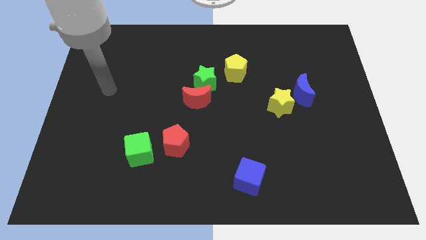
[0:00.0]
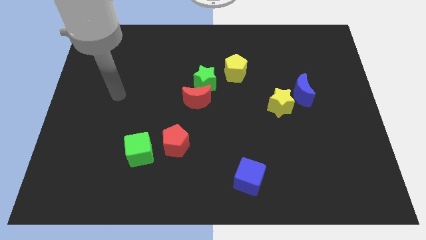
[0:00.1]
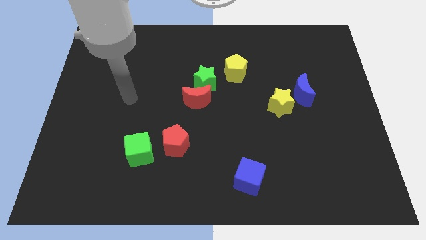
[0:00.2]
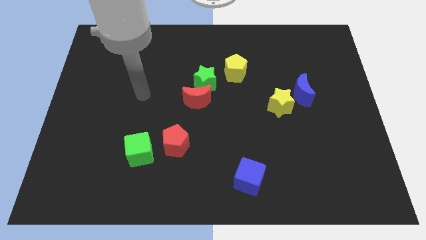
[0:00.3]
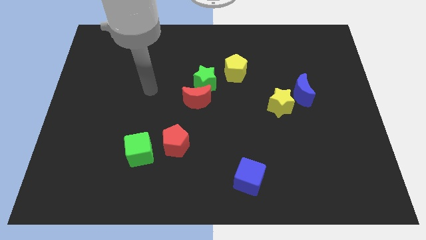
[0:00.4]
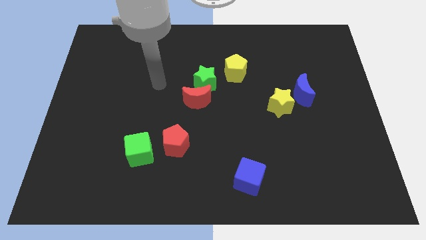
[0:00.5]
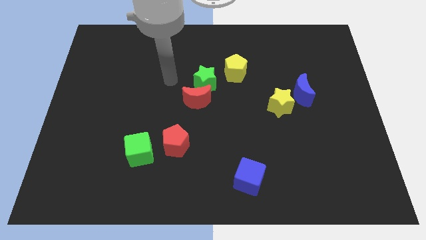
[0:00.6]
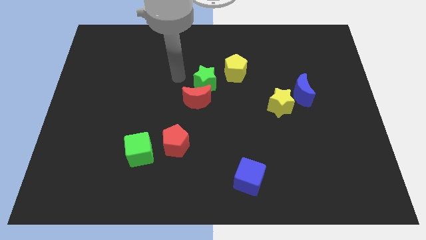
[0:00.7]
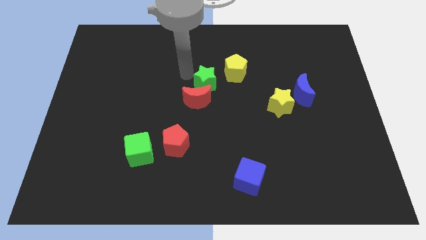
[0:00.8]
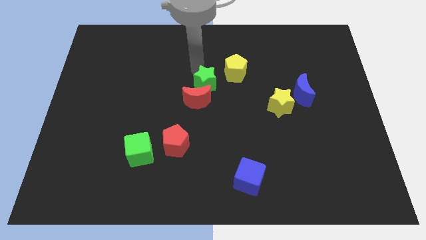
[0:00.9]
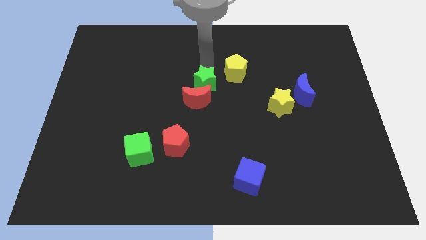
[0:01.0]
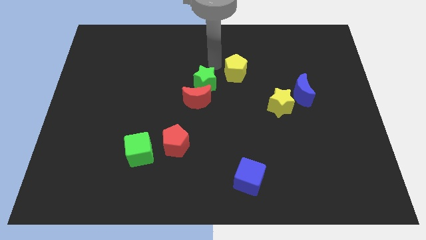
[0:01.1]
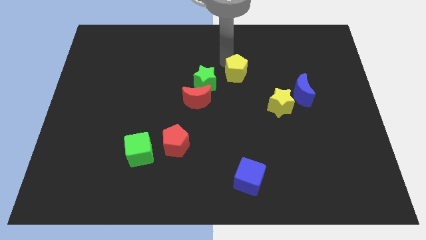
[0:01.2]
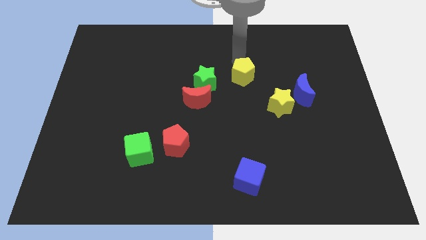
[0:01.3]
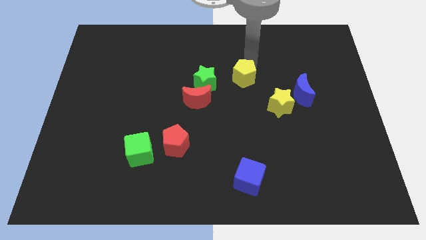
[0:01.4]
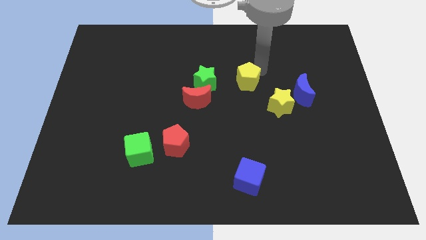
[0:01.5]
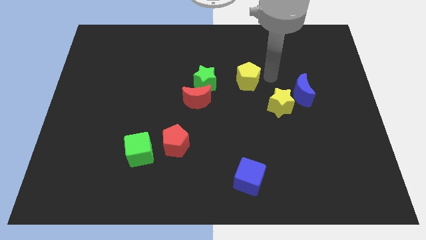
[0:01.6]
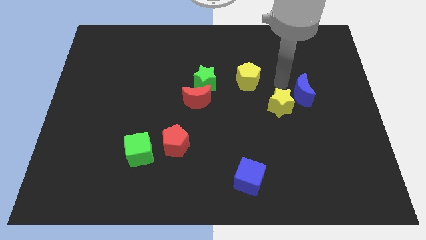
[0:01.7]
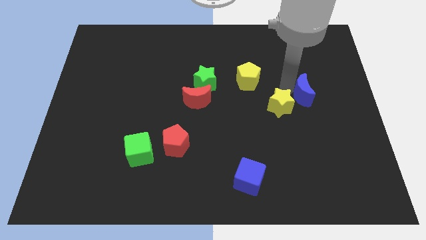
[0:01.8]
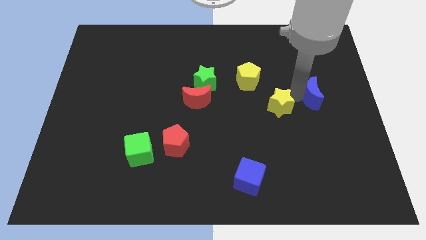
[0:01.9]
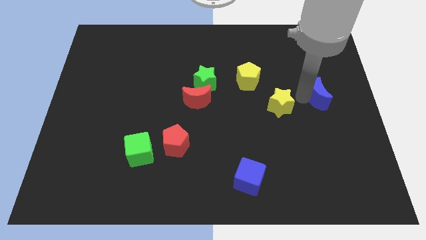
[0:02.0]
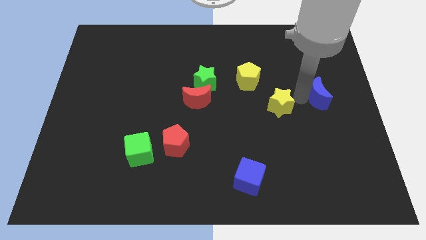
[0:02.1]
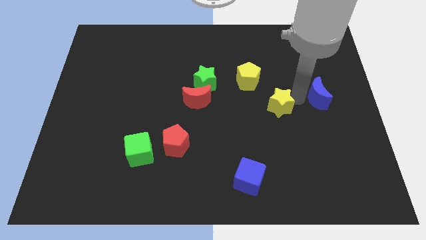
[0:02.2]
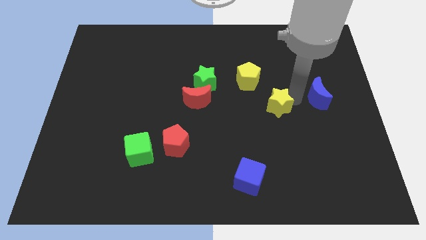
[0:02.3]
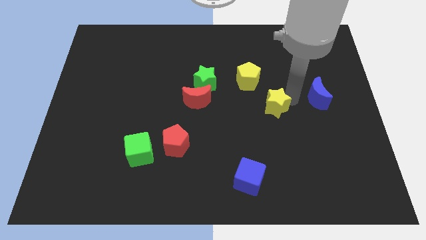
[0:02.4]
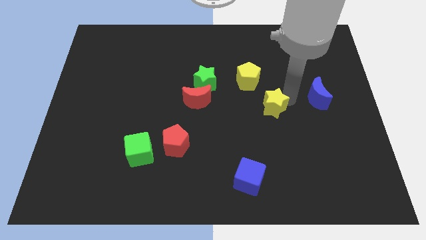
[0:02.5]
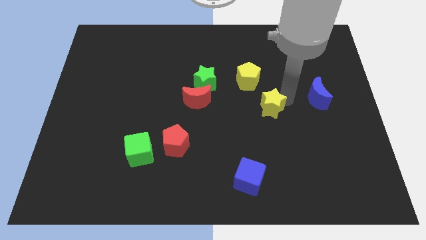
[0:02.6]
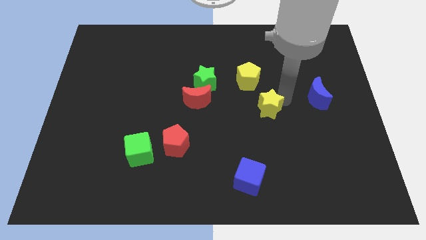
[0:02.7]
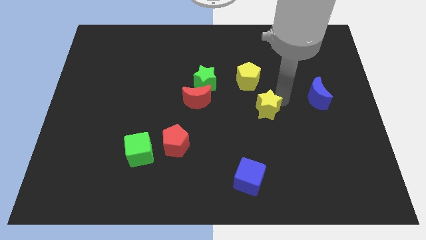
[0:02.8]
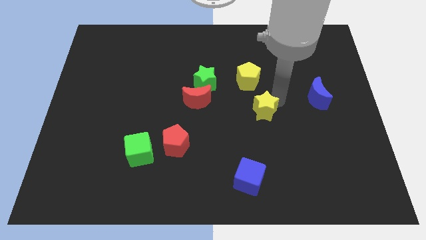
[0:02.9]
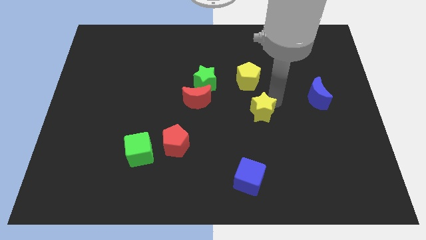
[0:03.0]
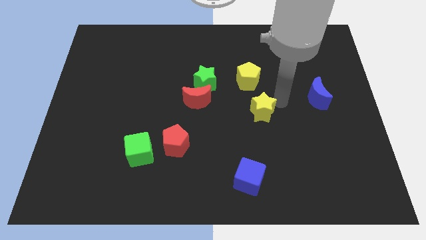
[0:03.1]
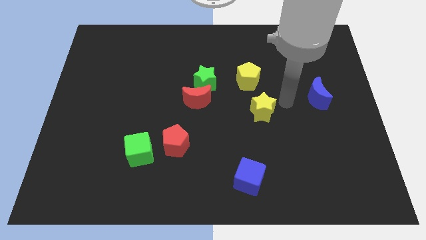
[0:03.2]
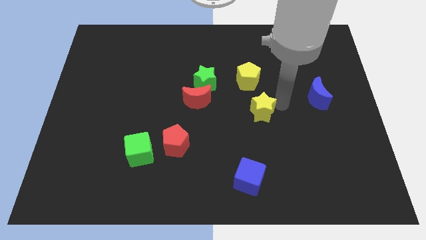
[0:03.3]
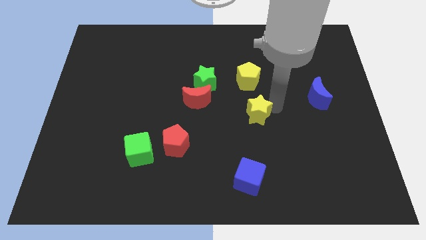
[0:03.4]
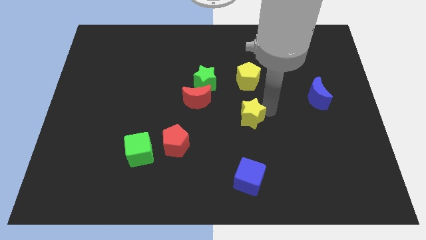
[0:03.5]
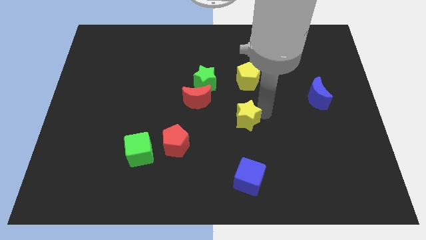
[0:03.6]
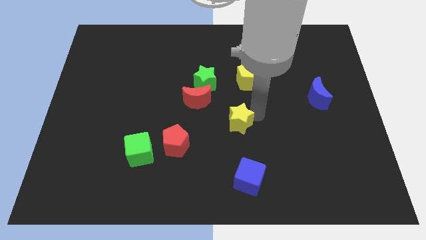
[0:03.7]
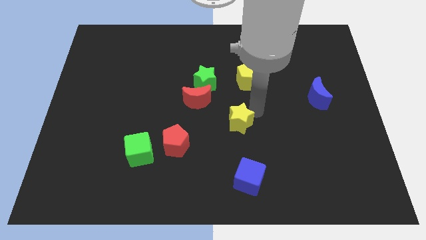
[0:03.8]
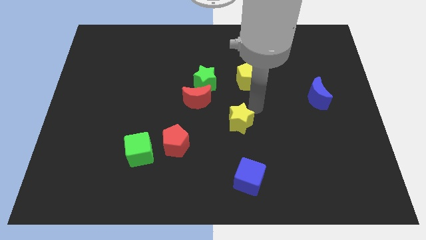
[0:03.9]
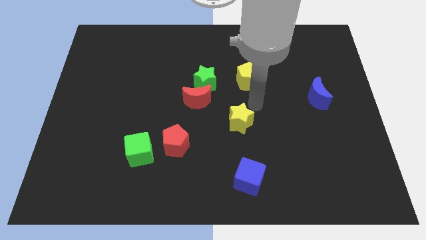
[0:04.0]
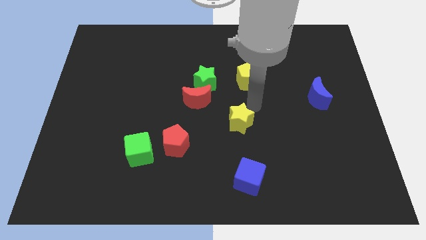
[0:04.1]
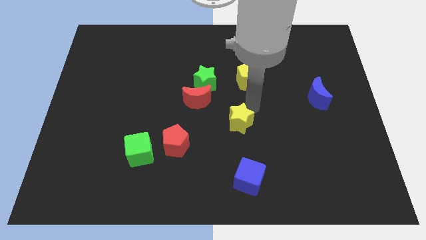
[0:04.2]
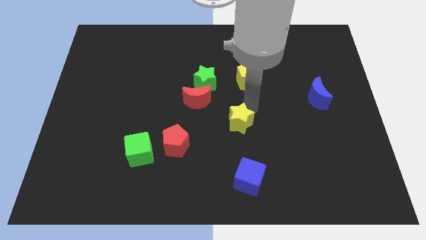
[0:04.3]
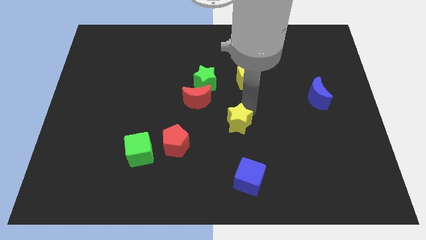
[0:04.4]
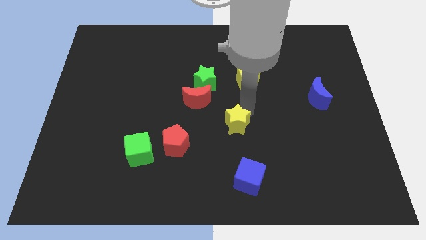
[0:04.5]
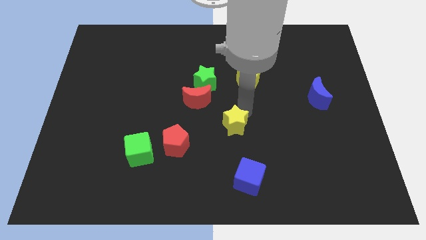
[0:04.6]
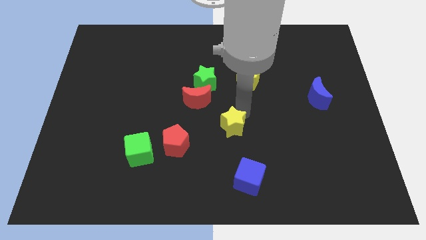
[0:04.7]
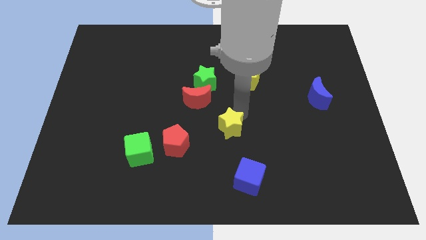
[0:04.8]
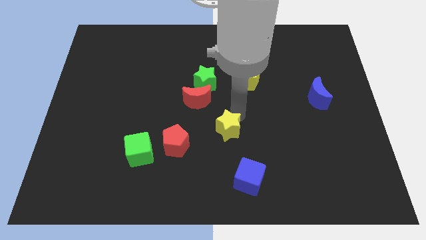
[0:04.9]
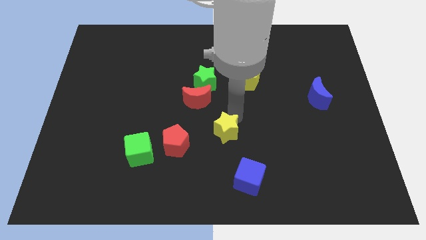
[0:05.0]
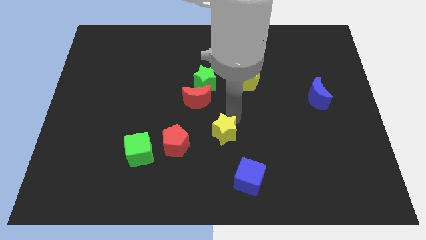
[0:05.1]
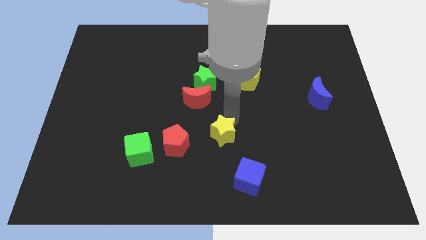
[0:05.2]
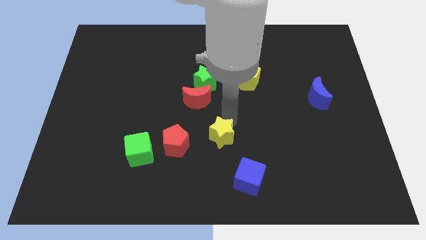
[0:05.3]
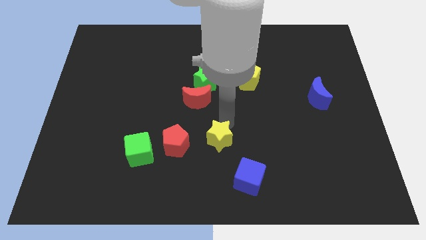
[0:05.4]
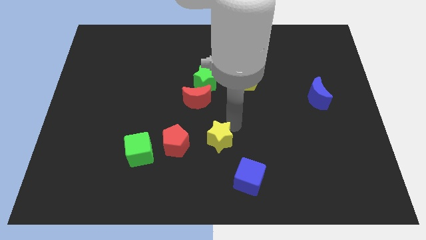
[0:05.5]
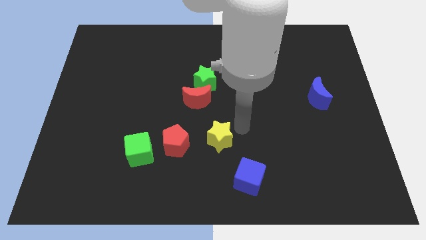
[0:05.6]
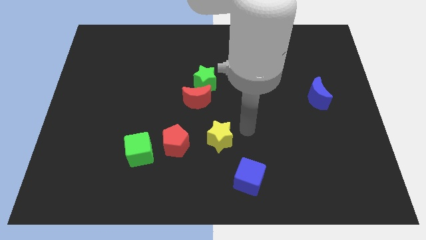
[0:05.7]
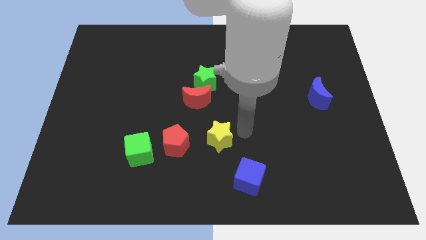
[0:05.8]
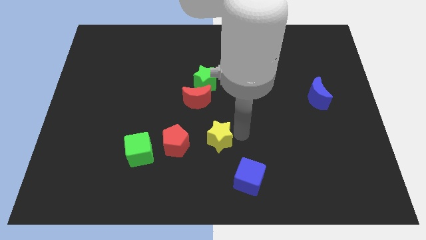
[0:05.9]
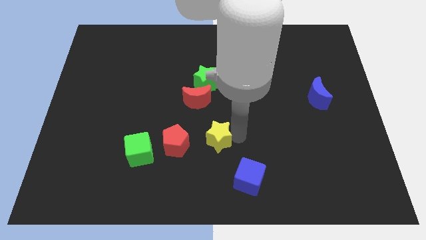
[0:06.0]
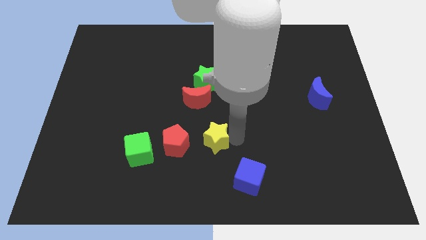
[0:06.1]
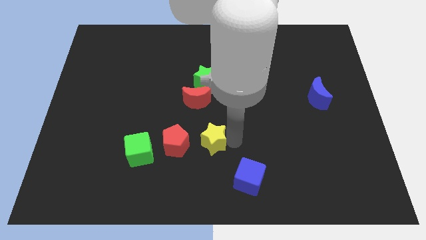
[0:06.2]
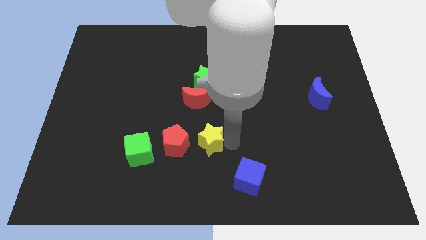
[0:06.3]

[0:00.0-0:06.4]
push the yellow star to the right side of the green cube
